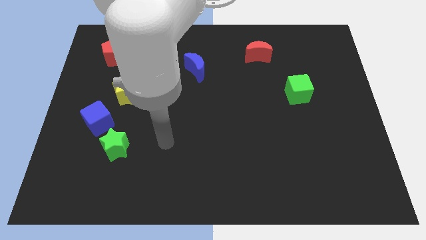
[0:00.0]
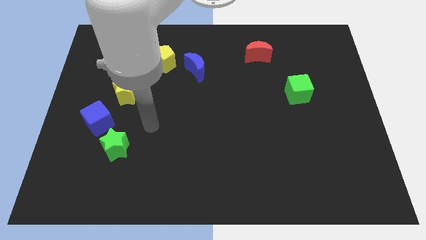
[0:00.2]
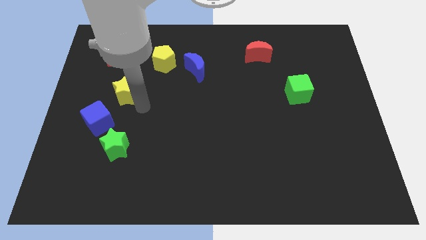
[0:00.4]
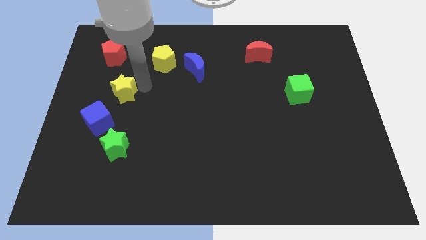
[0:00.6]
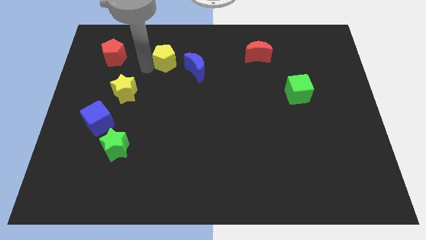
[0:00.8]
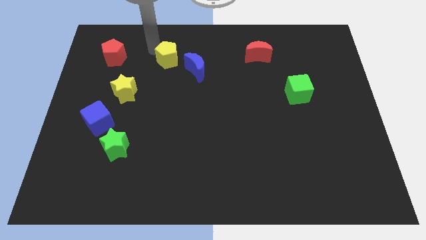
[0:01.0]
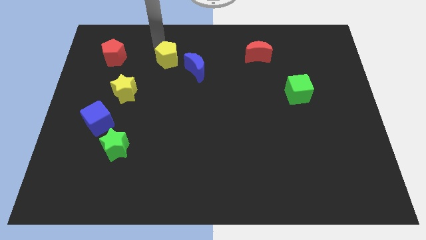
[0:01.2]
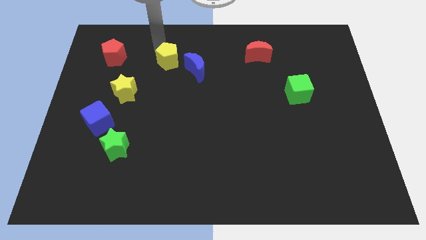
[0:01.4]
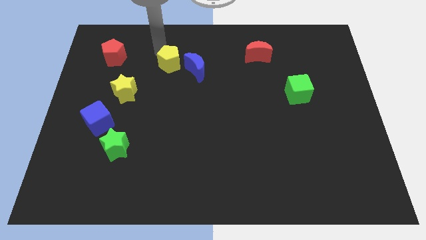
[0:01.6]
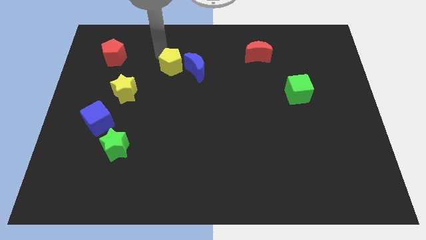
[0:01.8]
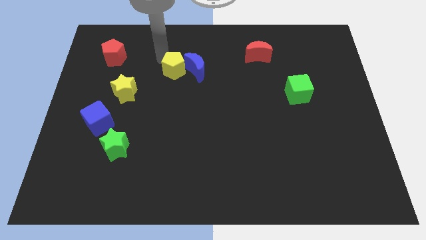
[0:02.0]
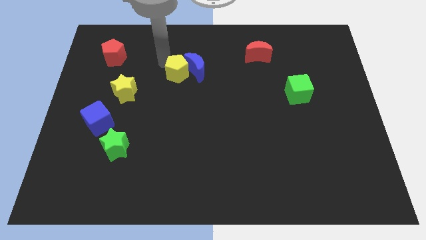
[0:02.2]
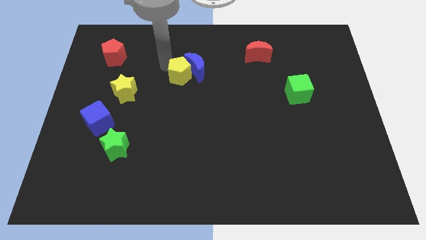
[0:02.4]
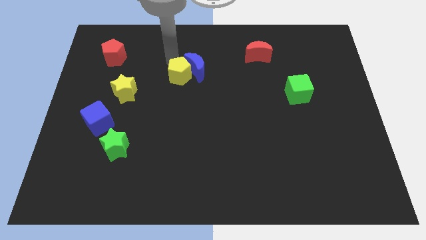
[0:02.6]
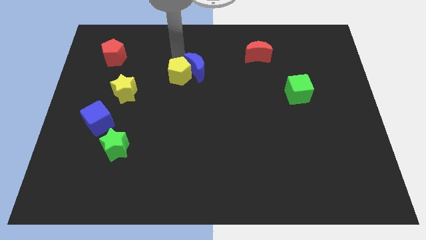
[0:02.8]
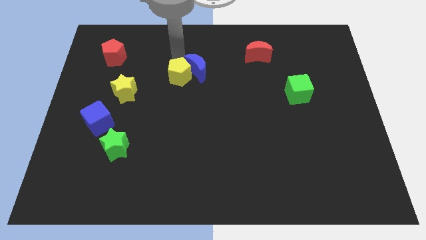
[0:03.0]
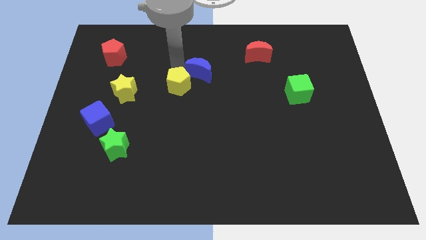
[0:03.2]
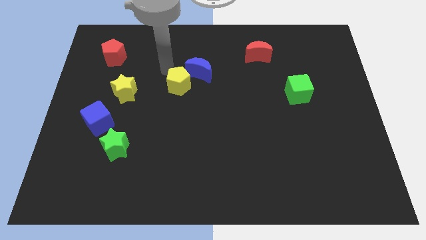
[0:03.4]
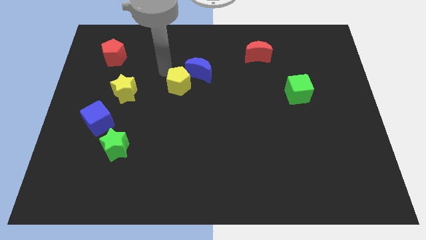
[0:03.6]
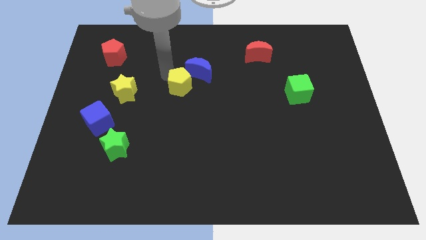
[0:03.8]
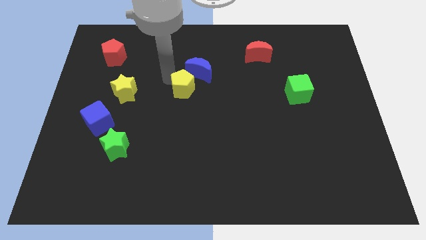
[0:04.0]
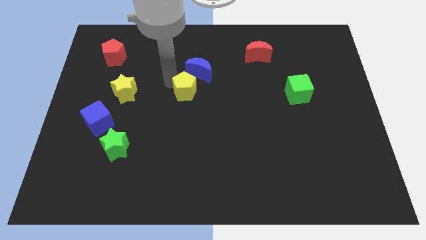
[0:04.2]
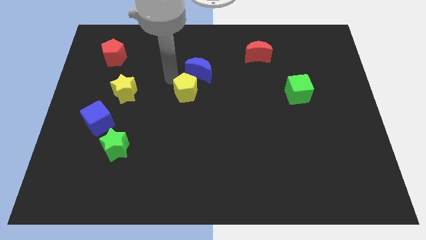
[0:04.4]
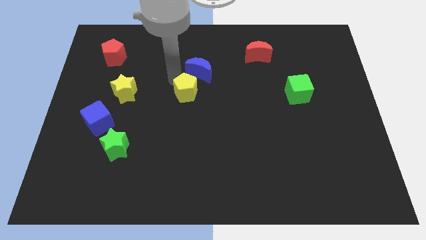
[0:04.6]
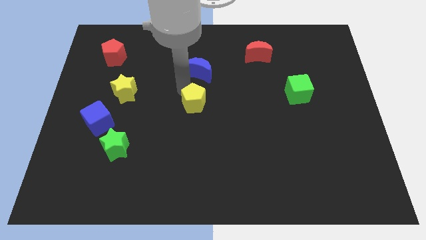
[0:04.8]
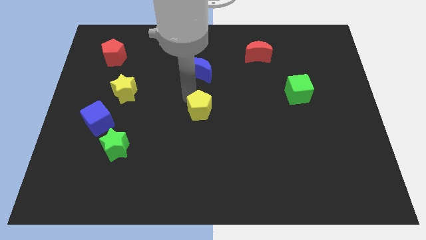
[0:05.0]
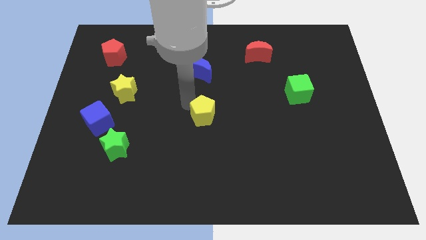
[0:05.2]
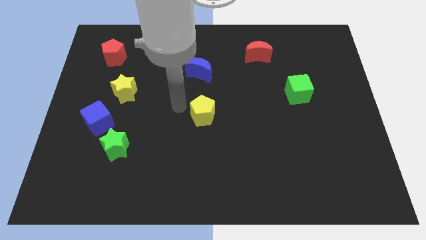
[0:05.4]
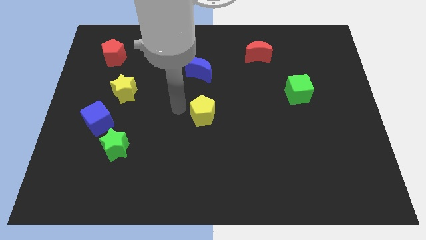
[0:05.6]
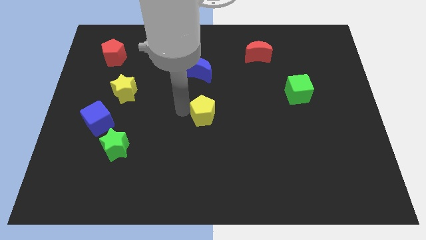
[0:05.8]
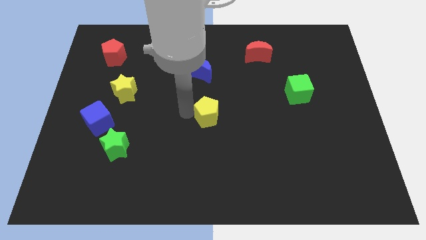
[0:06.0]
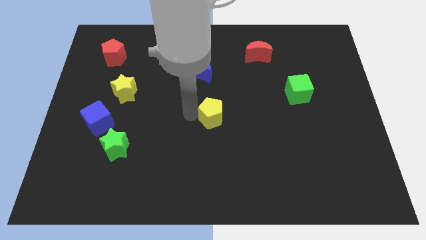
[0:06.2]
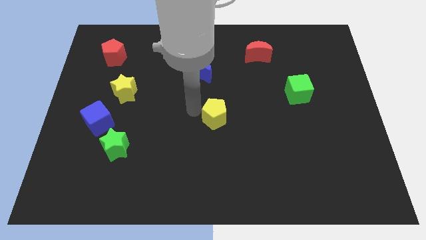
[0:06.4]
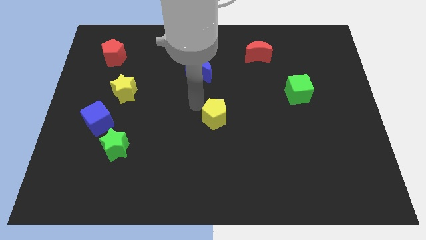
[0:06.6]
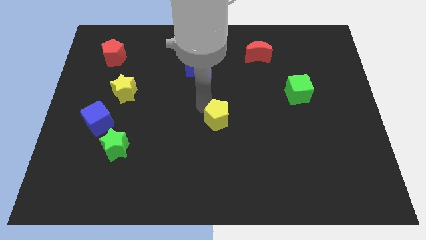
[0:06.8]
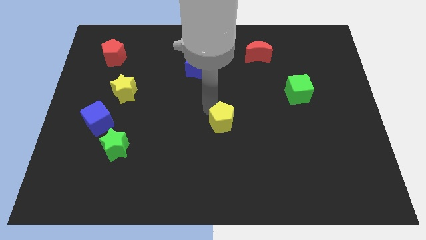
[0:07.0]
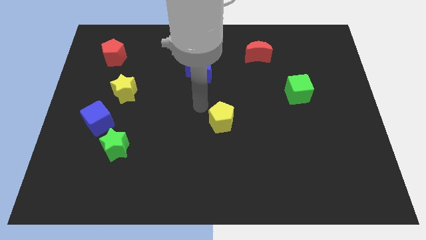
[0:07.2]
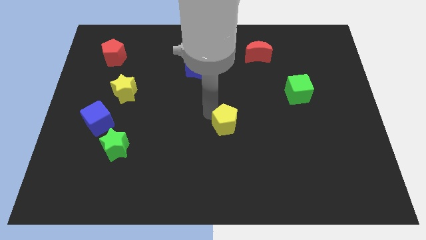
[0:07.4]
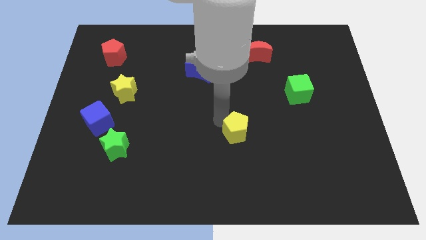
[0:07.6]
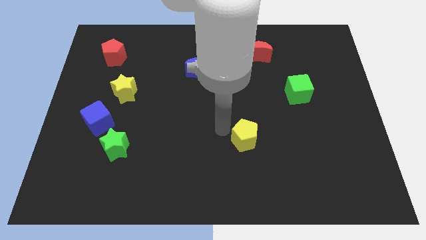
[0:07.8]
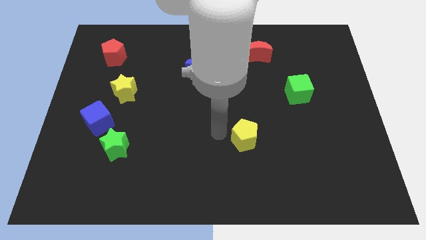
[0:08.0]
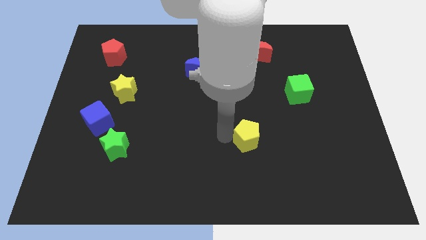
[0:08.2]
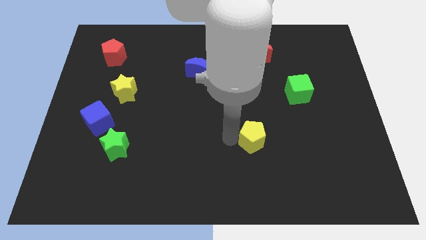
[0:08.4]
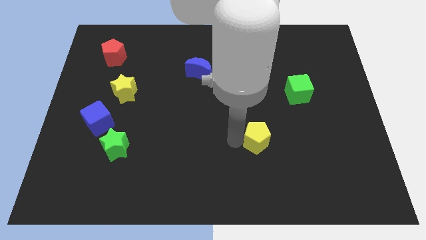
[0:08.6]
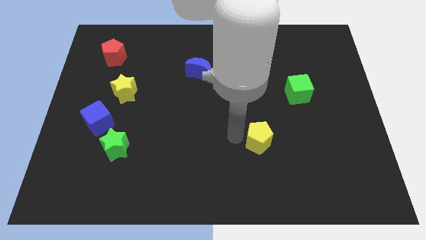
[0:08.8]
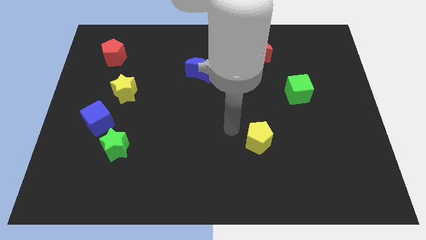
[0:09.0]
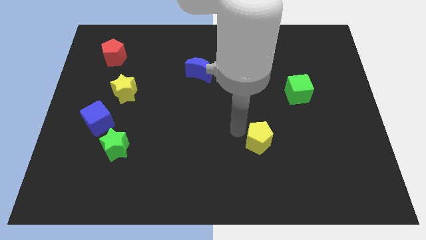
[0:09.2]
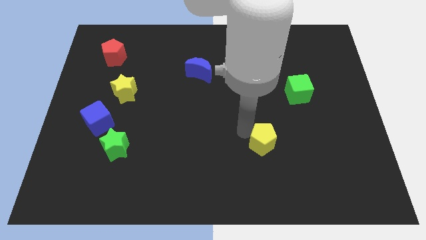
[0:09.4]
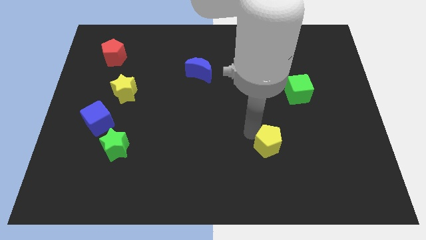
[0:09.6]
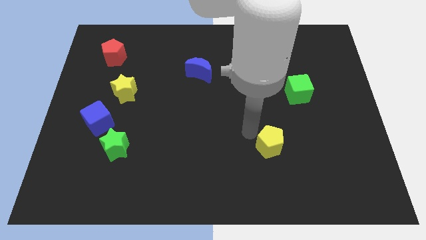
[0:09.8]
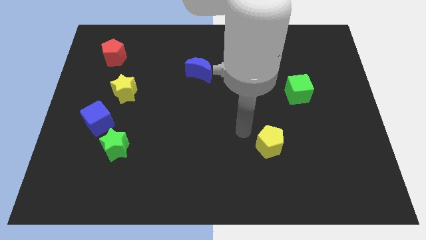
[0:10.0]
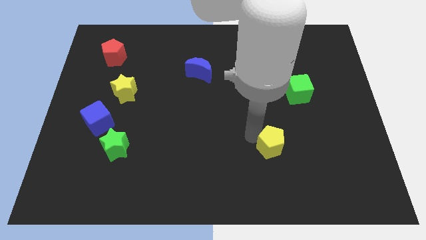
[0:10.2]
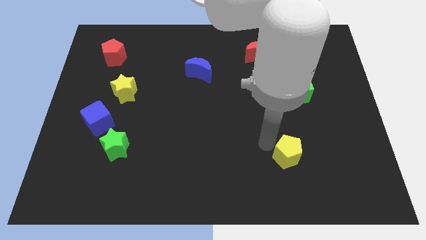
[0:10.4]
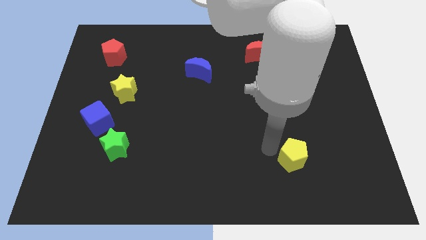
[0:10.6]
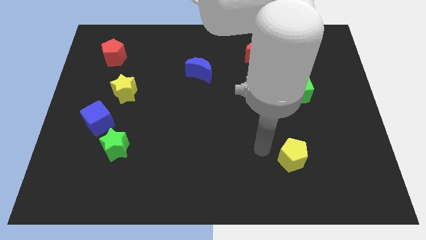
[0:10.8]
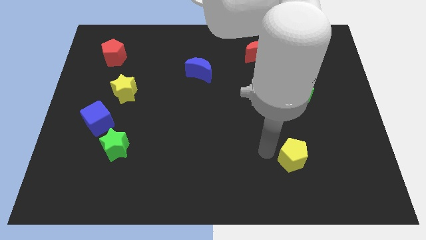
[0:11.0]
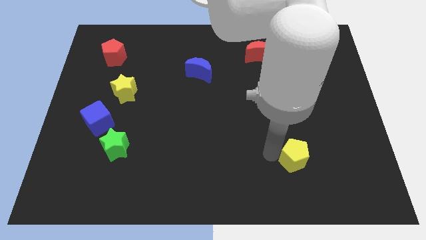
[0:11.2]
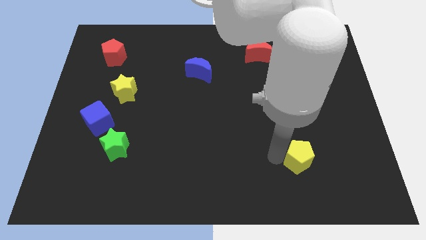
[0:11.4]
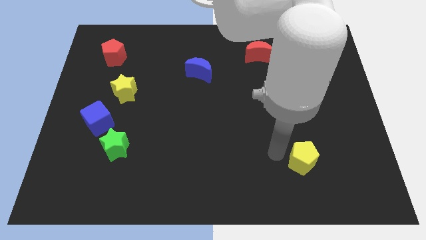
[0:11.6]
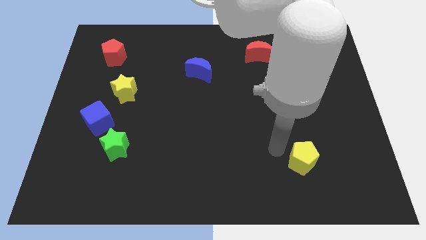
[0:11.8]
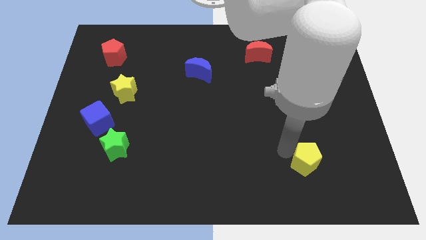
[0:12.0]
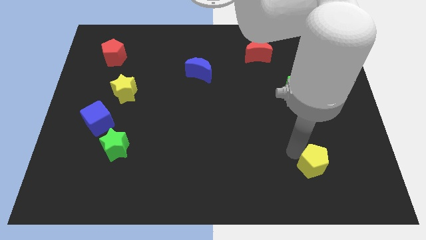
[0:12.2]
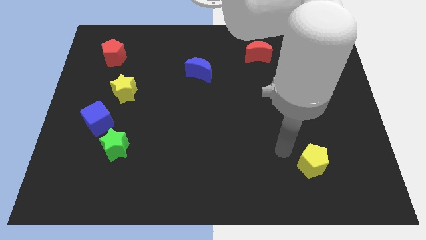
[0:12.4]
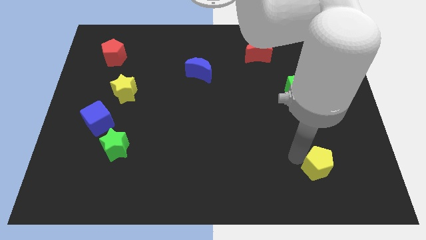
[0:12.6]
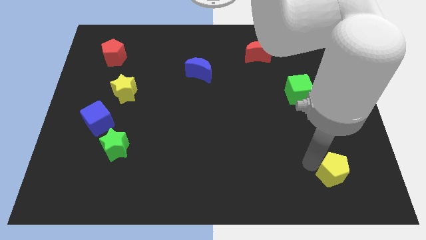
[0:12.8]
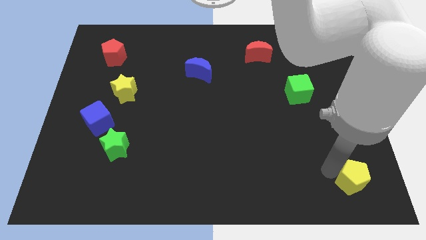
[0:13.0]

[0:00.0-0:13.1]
put the yellow pentagon to the lower right corner
